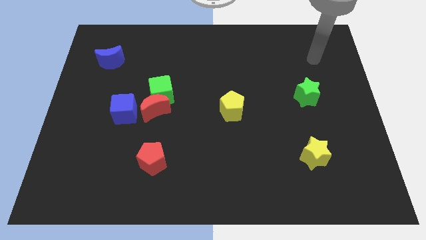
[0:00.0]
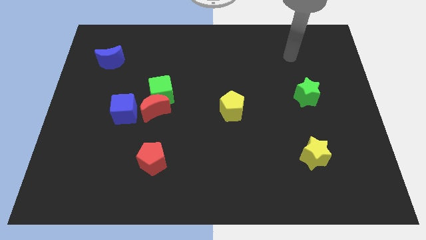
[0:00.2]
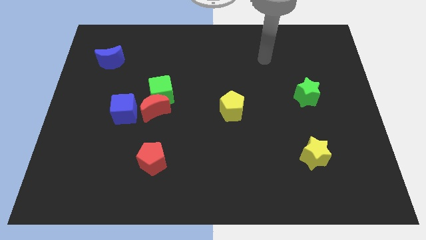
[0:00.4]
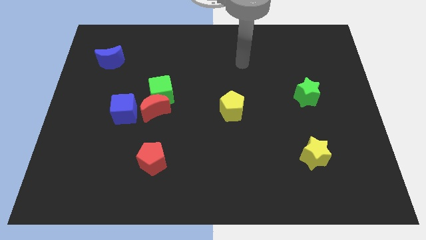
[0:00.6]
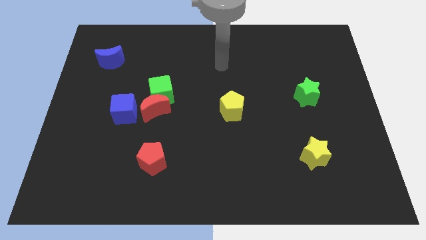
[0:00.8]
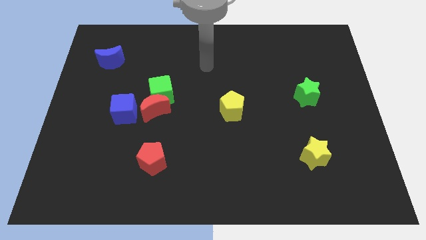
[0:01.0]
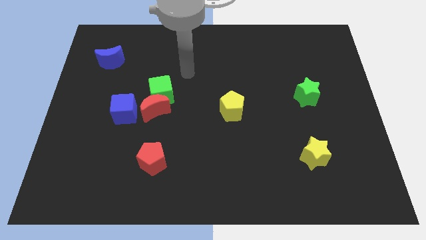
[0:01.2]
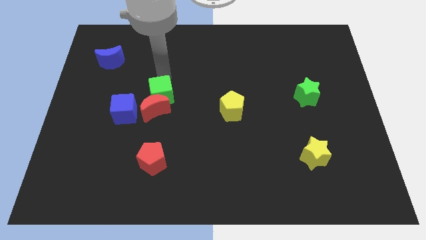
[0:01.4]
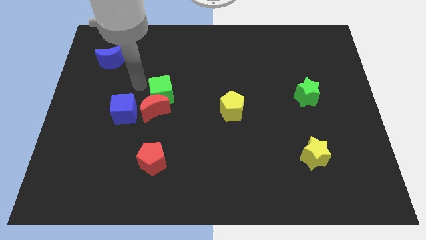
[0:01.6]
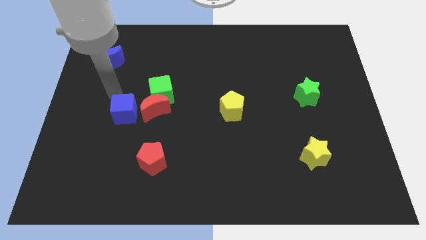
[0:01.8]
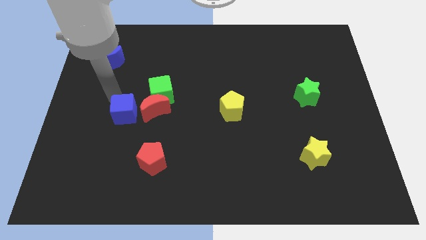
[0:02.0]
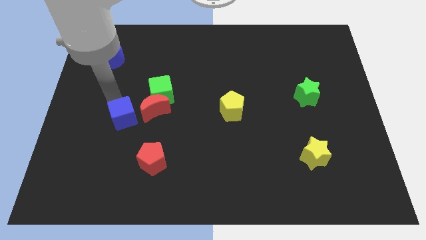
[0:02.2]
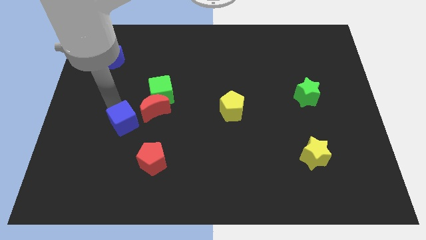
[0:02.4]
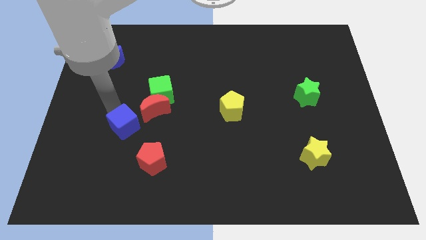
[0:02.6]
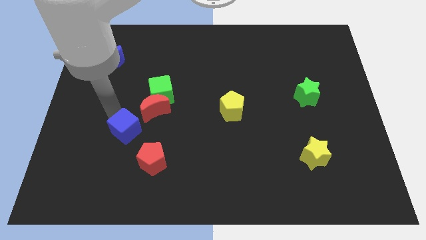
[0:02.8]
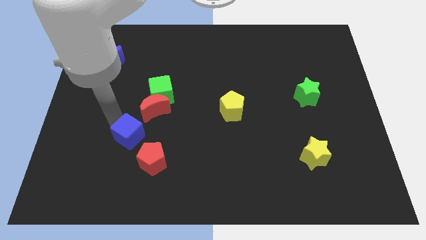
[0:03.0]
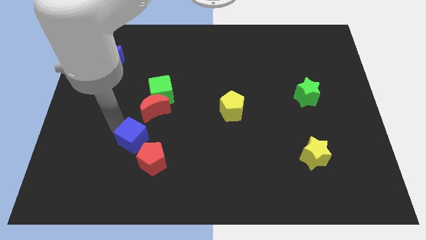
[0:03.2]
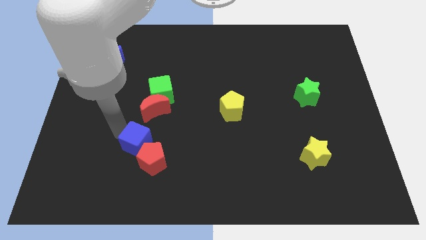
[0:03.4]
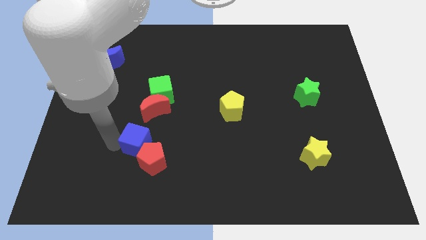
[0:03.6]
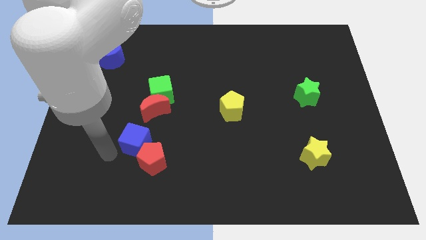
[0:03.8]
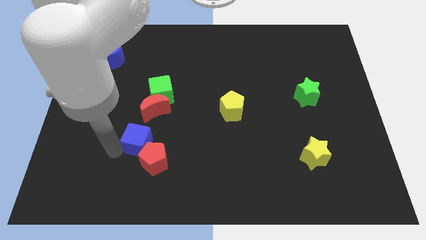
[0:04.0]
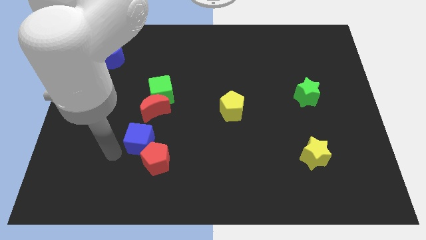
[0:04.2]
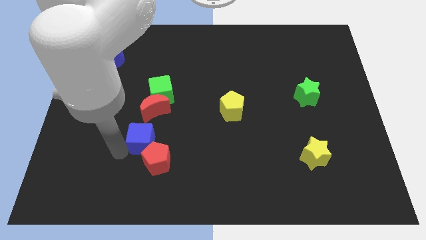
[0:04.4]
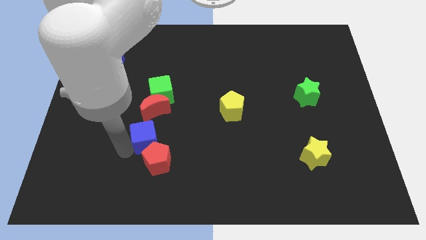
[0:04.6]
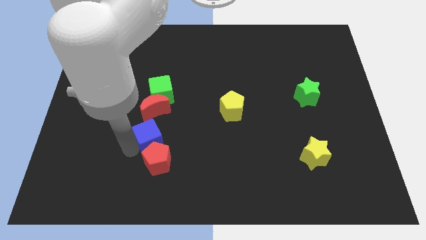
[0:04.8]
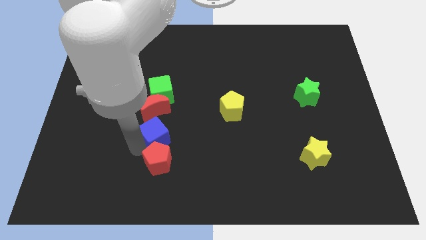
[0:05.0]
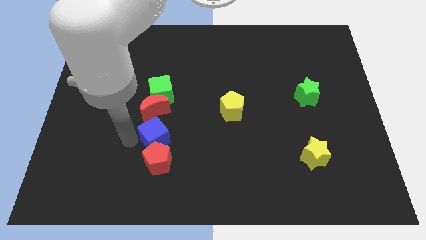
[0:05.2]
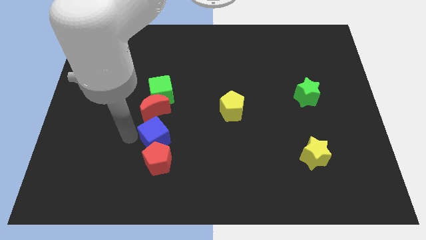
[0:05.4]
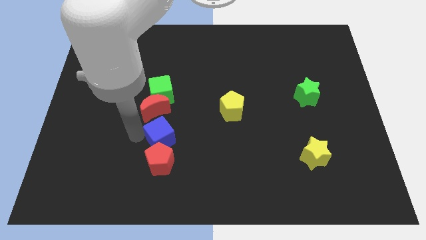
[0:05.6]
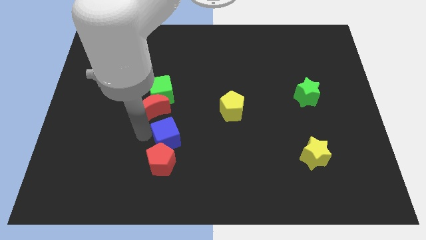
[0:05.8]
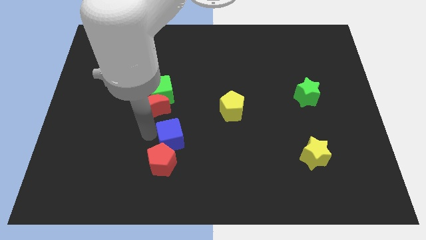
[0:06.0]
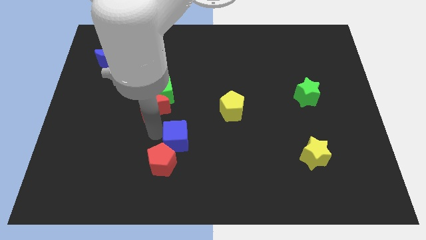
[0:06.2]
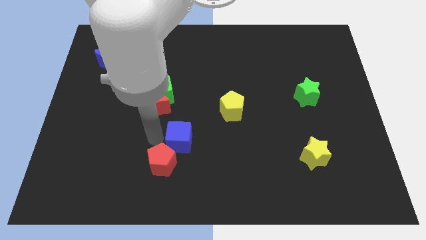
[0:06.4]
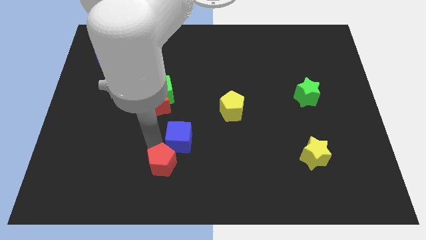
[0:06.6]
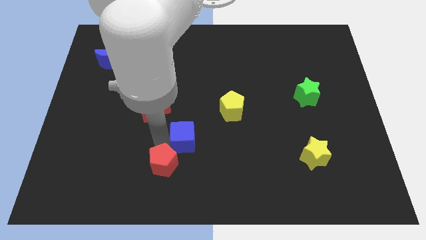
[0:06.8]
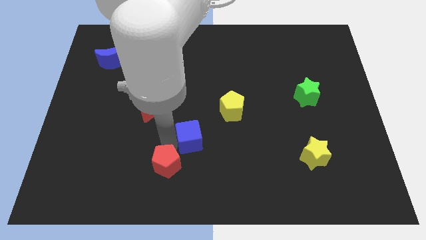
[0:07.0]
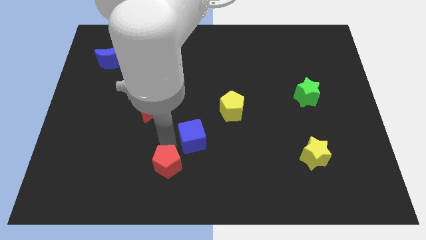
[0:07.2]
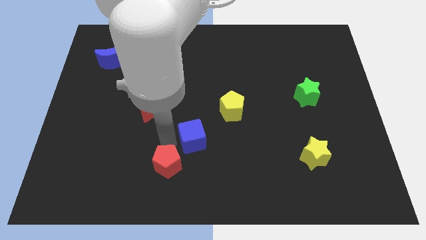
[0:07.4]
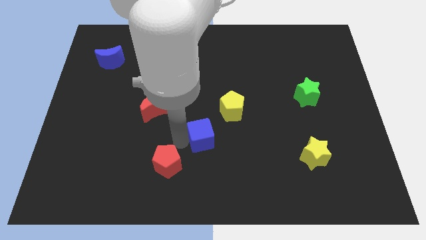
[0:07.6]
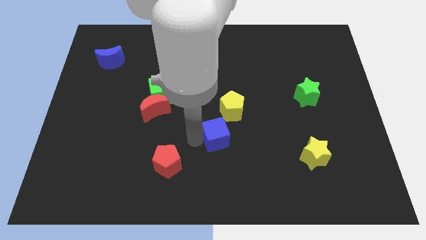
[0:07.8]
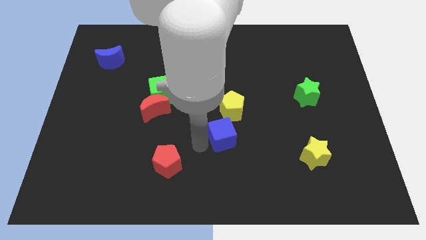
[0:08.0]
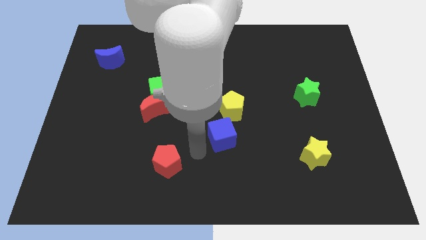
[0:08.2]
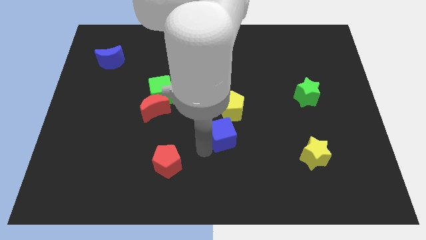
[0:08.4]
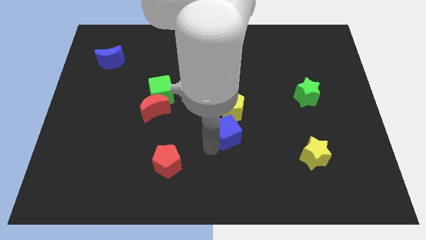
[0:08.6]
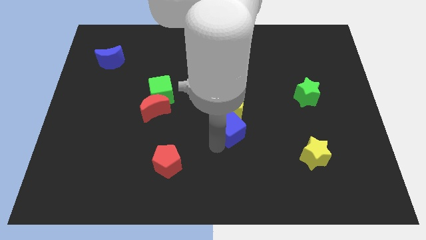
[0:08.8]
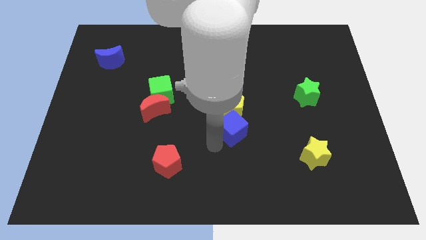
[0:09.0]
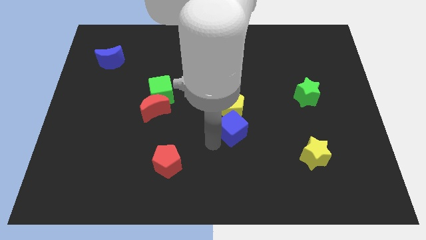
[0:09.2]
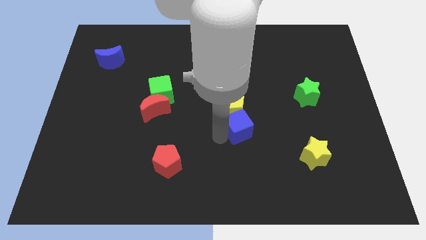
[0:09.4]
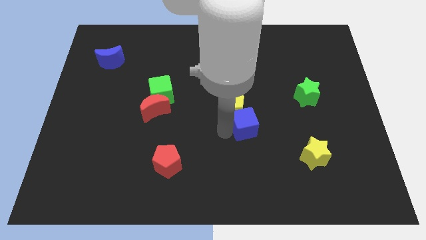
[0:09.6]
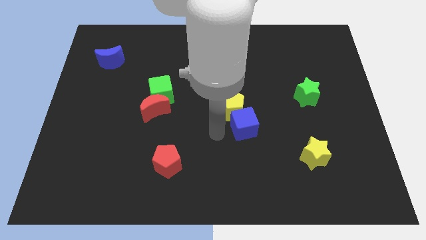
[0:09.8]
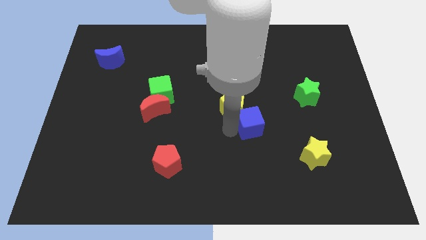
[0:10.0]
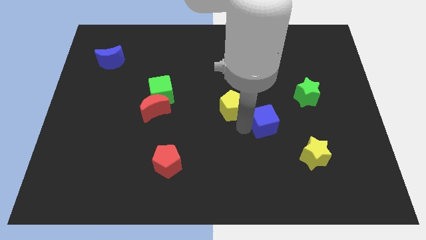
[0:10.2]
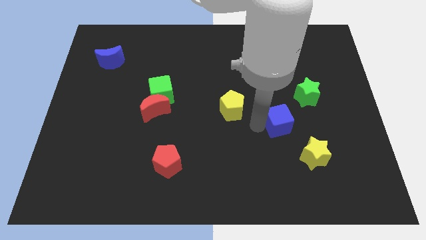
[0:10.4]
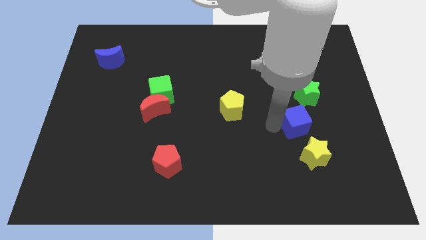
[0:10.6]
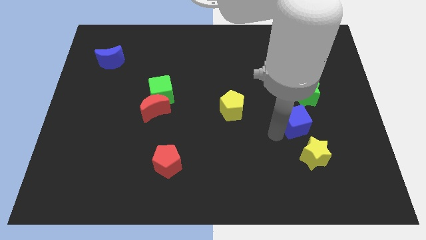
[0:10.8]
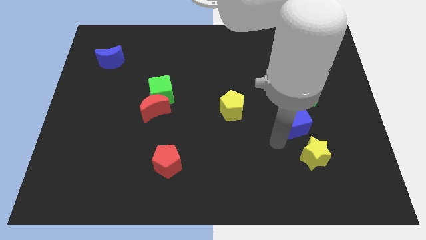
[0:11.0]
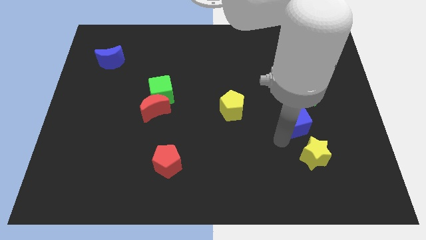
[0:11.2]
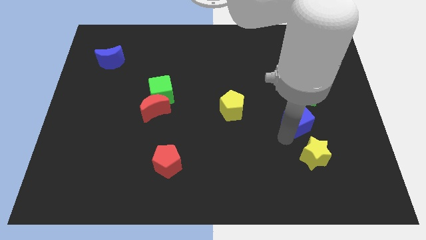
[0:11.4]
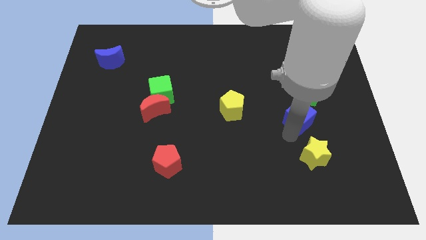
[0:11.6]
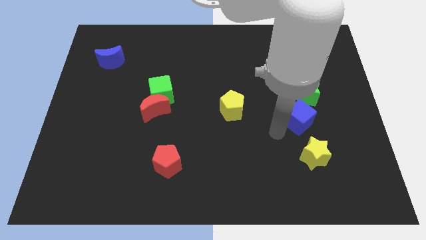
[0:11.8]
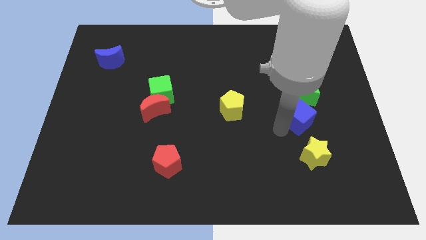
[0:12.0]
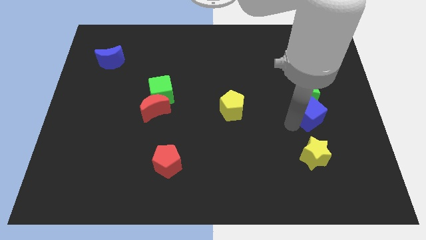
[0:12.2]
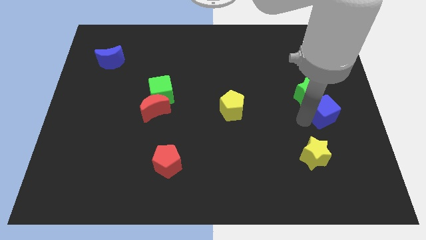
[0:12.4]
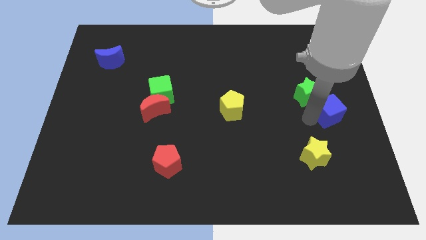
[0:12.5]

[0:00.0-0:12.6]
move the blue cube to the right side

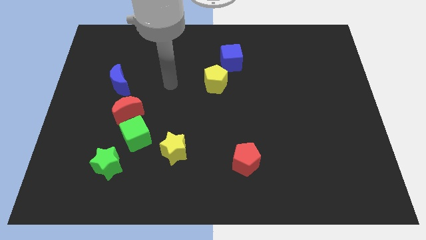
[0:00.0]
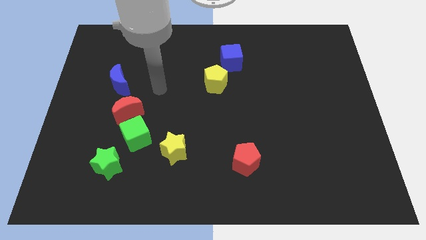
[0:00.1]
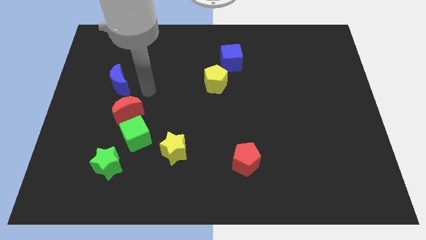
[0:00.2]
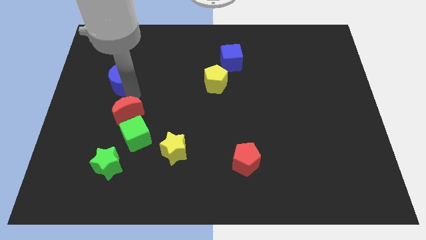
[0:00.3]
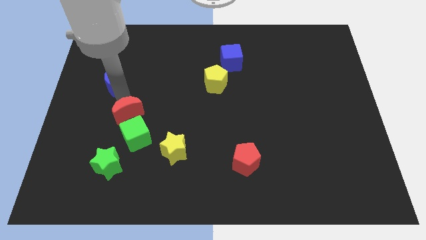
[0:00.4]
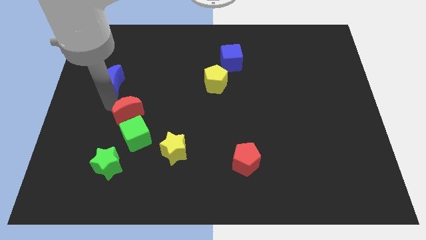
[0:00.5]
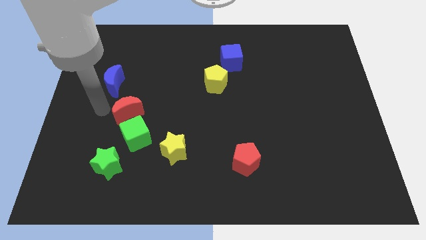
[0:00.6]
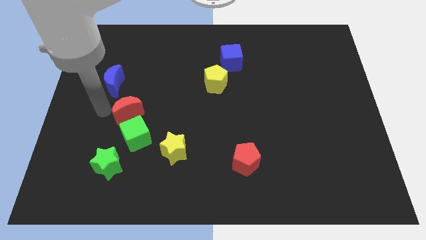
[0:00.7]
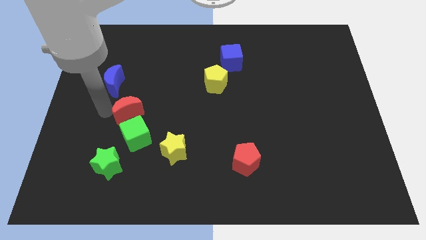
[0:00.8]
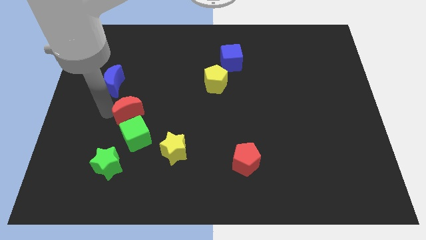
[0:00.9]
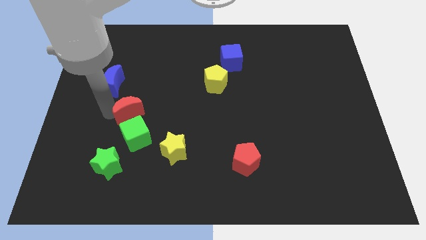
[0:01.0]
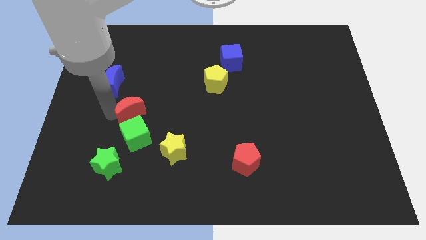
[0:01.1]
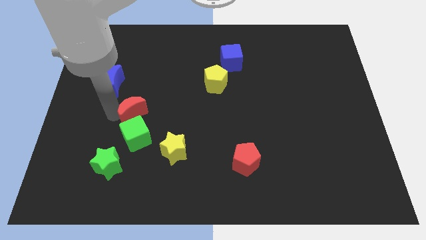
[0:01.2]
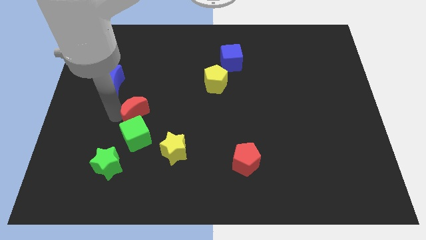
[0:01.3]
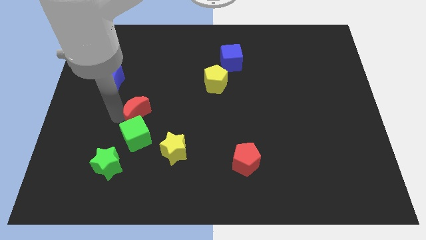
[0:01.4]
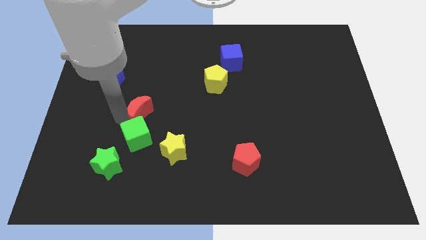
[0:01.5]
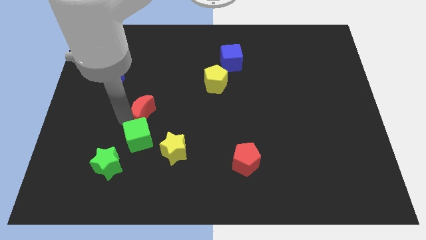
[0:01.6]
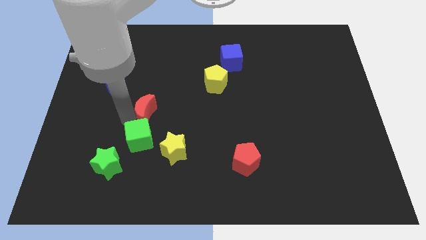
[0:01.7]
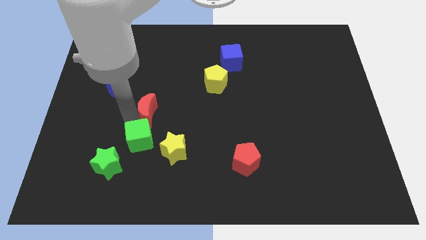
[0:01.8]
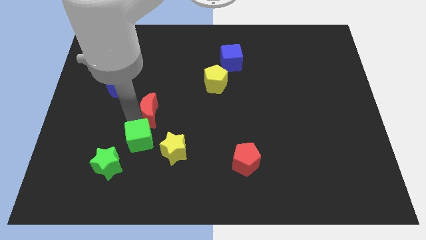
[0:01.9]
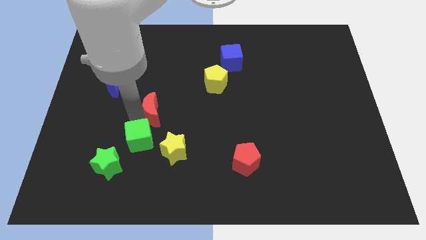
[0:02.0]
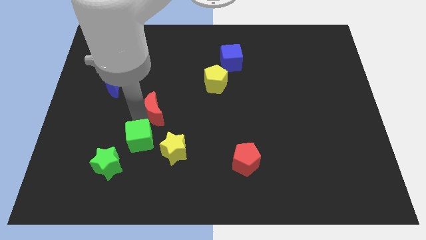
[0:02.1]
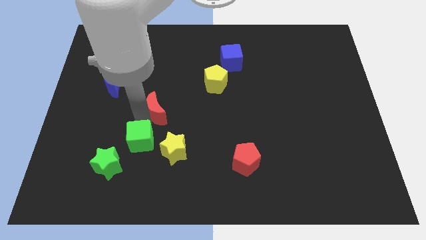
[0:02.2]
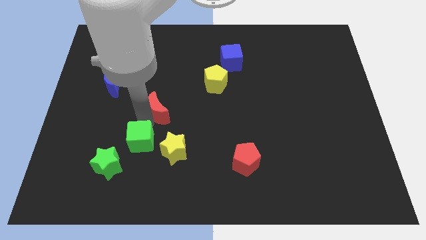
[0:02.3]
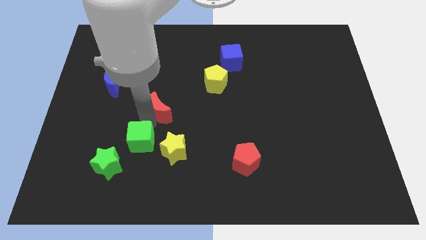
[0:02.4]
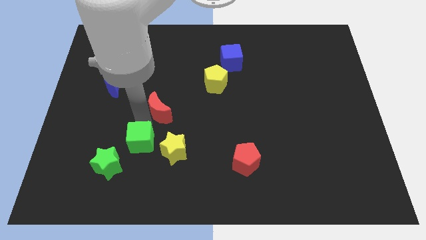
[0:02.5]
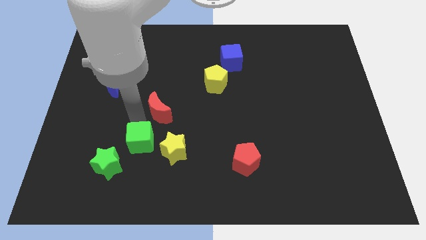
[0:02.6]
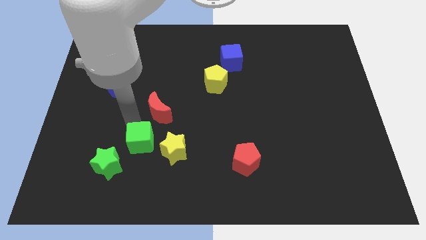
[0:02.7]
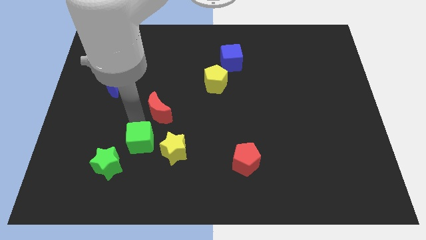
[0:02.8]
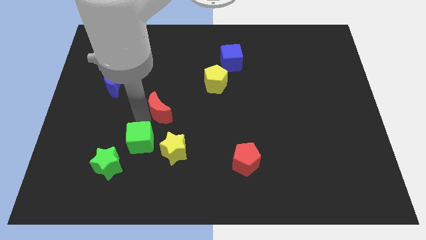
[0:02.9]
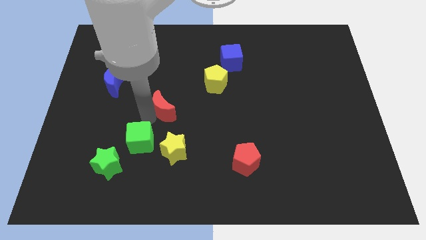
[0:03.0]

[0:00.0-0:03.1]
slide the red moon to the center of the board
